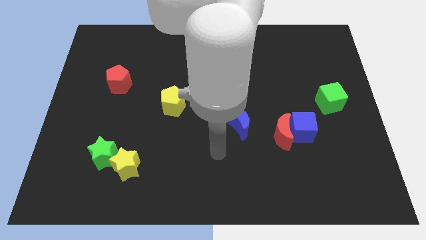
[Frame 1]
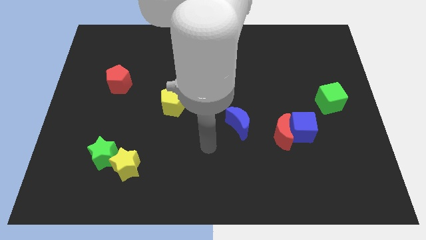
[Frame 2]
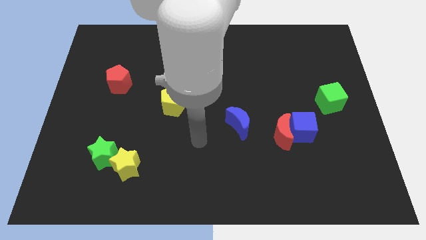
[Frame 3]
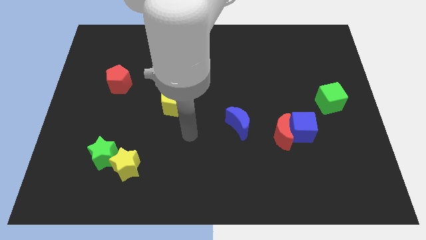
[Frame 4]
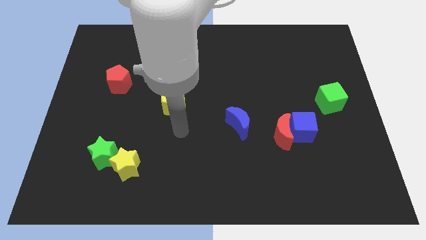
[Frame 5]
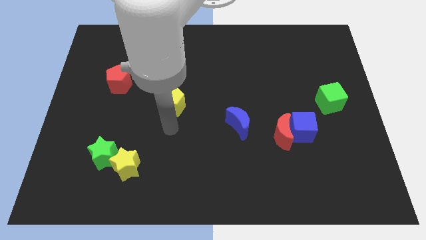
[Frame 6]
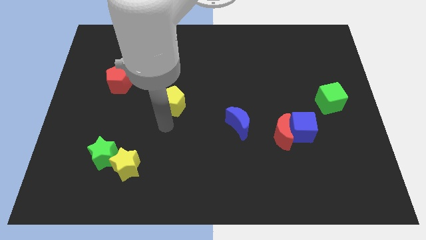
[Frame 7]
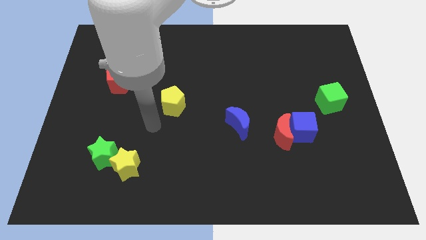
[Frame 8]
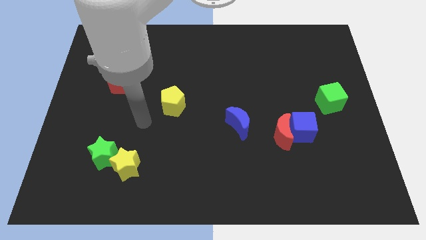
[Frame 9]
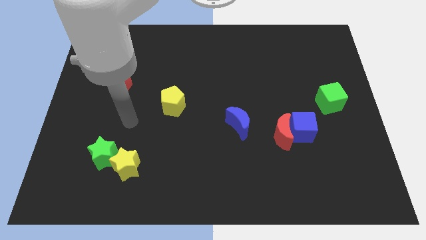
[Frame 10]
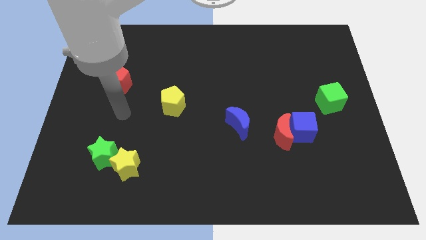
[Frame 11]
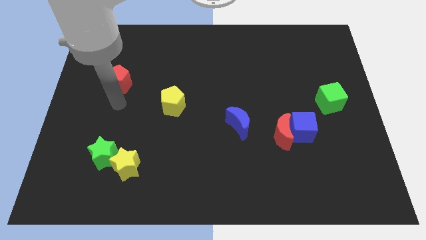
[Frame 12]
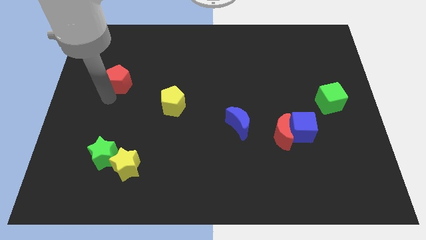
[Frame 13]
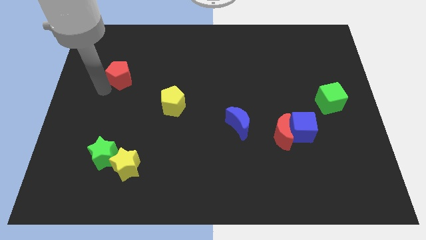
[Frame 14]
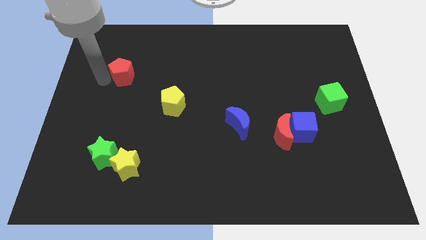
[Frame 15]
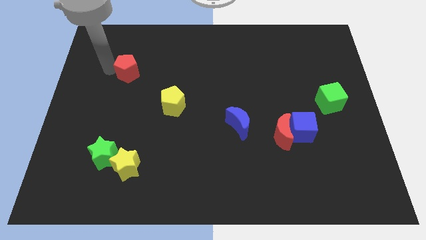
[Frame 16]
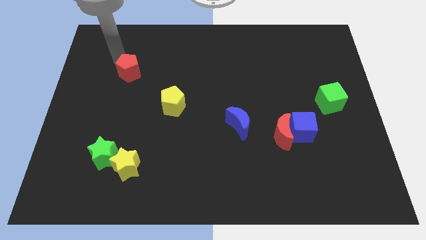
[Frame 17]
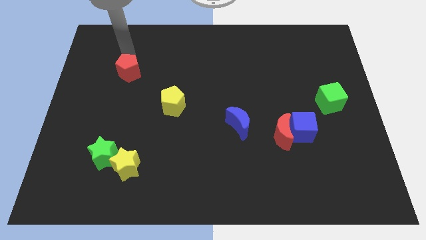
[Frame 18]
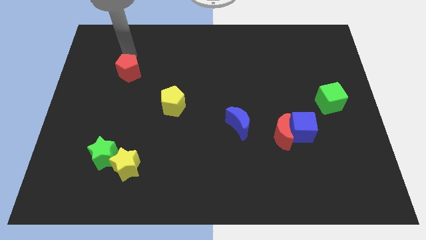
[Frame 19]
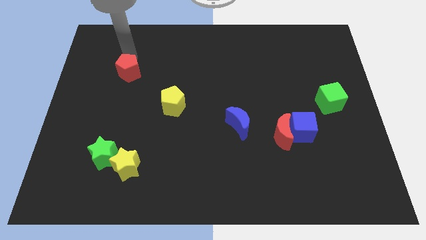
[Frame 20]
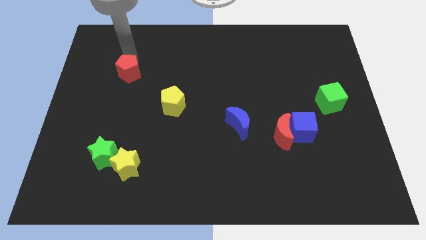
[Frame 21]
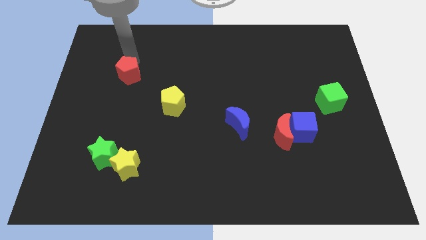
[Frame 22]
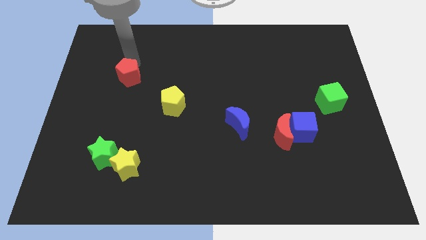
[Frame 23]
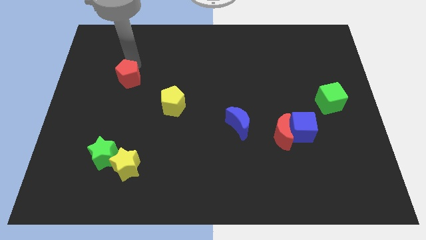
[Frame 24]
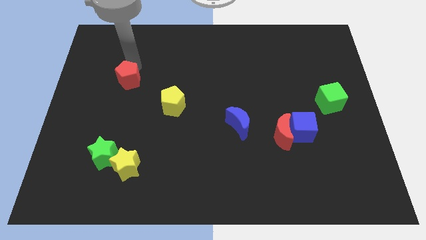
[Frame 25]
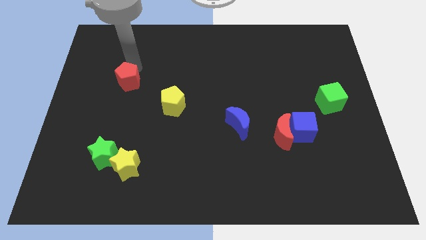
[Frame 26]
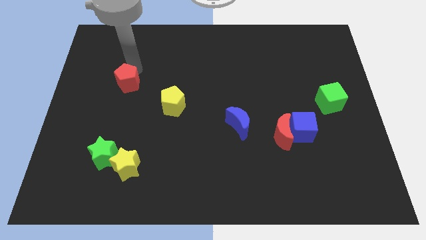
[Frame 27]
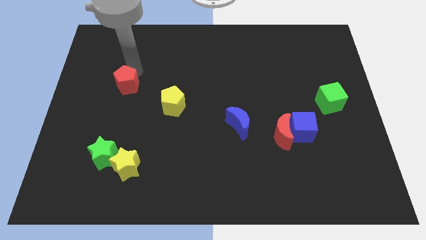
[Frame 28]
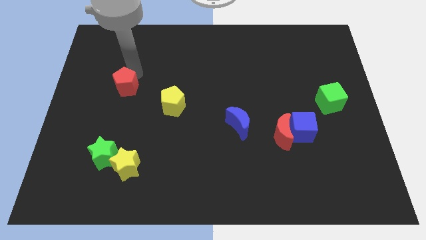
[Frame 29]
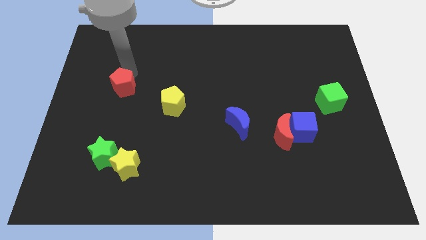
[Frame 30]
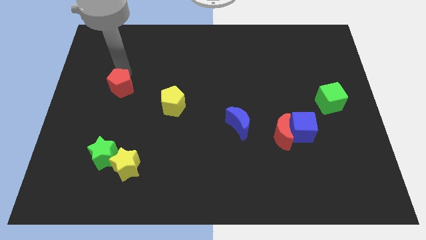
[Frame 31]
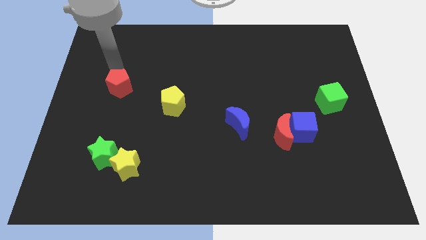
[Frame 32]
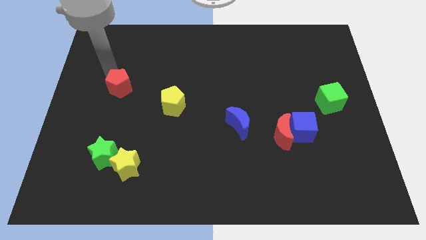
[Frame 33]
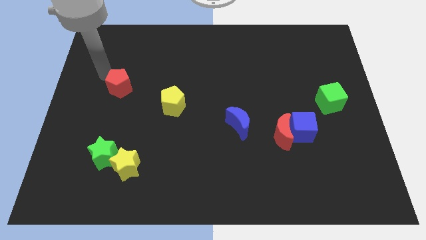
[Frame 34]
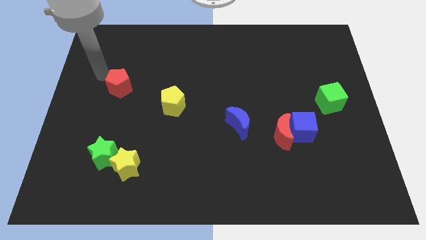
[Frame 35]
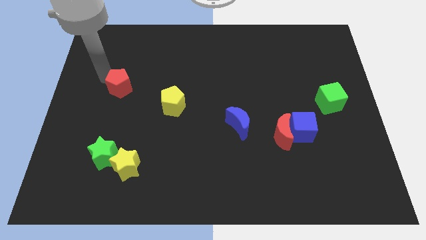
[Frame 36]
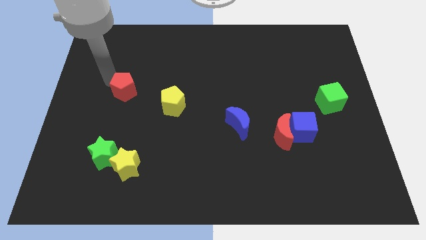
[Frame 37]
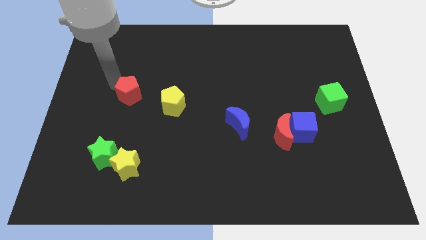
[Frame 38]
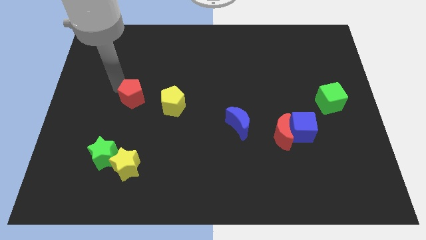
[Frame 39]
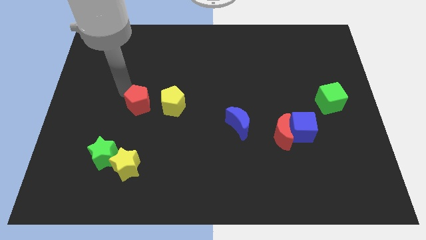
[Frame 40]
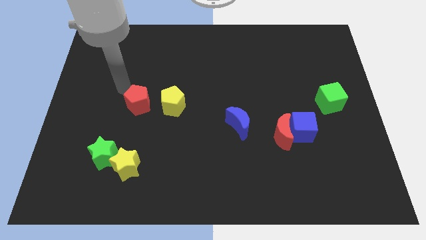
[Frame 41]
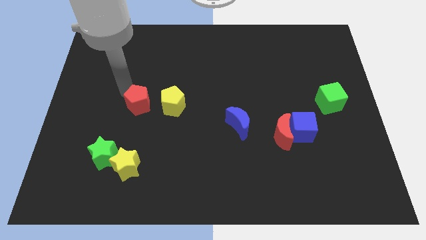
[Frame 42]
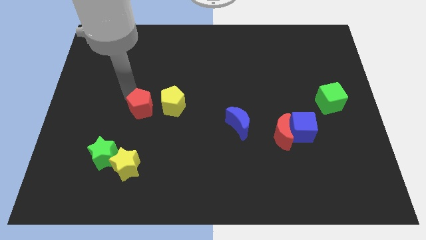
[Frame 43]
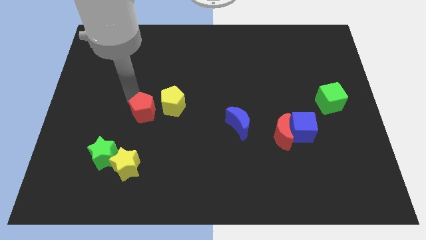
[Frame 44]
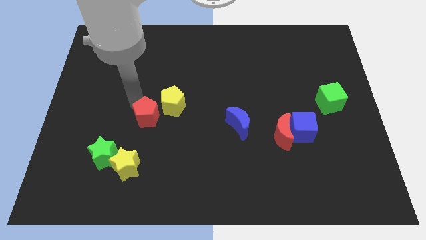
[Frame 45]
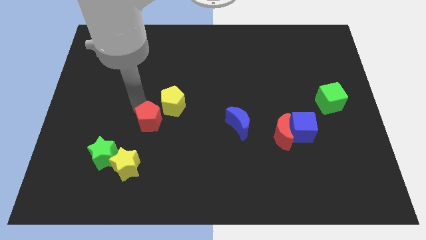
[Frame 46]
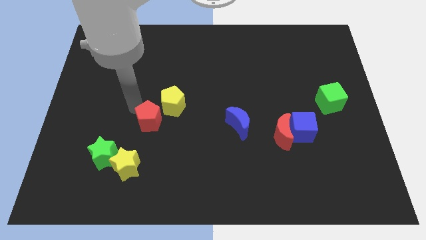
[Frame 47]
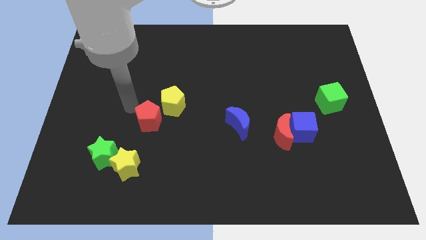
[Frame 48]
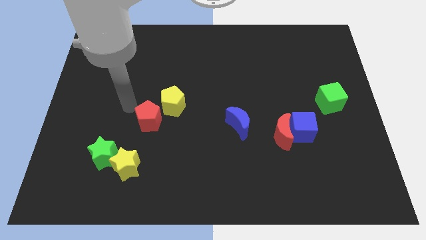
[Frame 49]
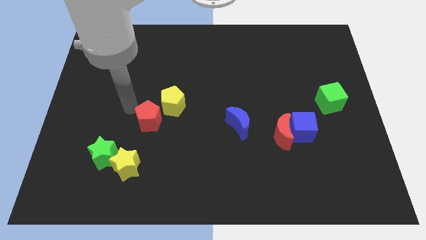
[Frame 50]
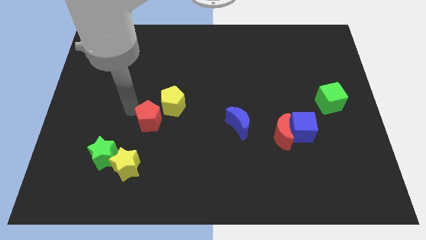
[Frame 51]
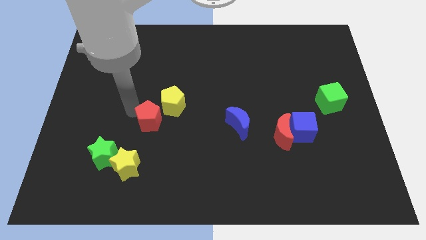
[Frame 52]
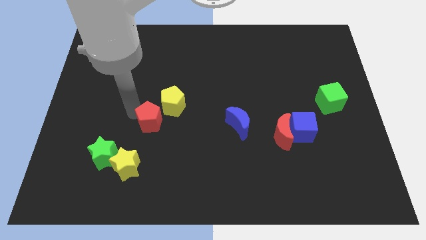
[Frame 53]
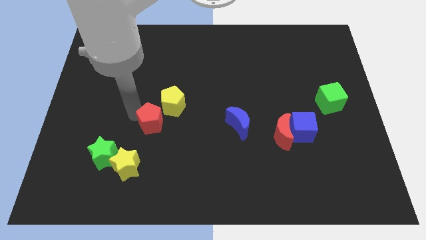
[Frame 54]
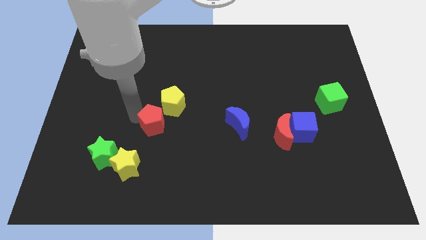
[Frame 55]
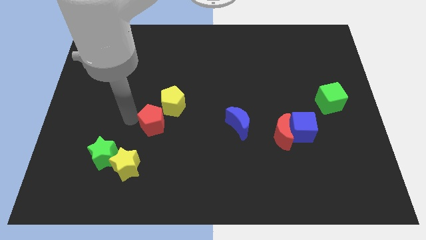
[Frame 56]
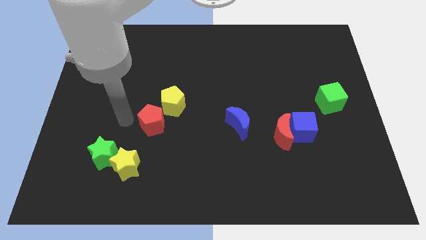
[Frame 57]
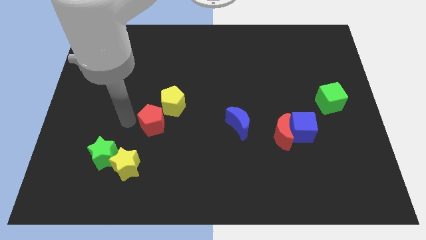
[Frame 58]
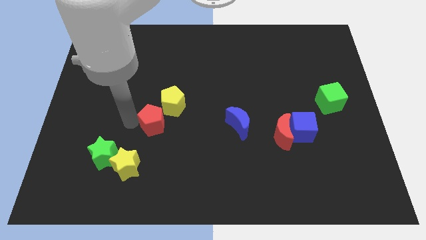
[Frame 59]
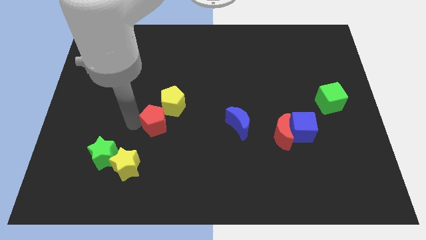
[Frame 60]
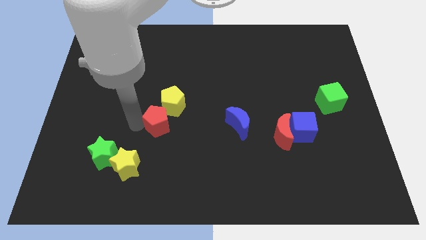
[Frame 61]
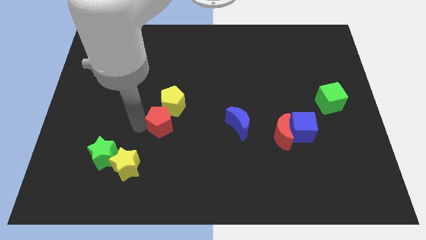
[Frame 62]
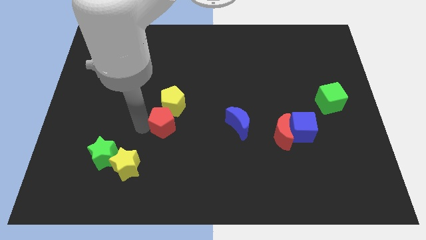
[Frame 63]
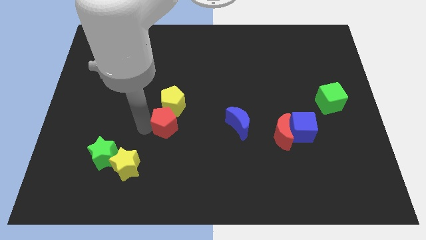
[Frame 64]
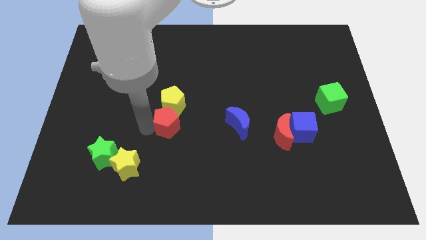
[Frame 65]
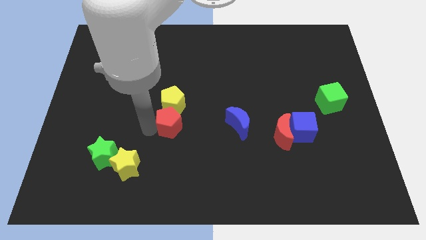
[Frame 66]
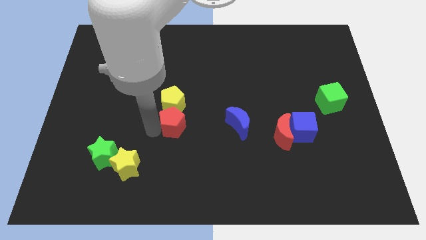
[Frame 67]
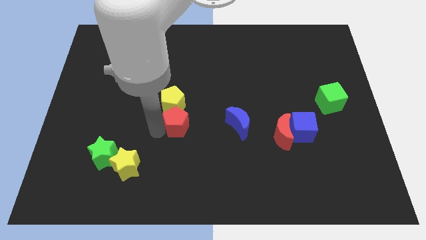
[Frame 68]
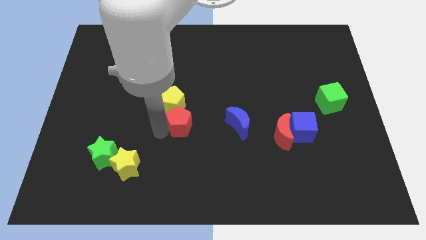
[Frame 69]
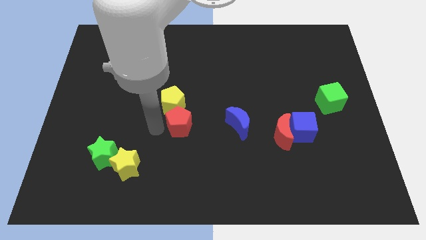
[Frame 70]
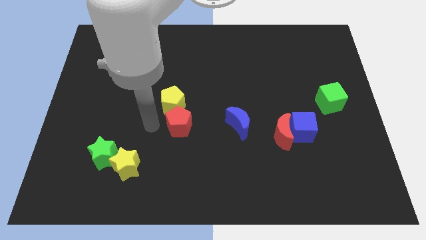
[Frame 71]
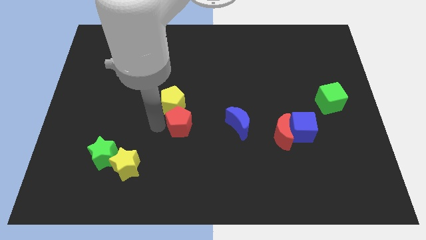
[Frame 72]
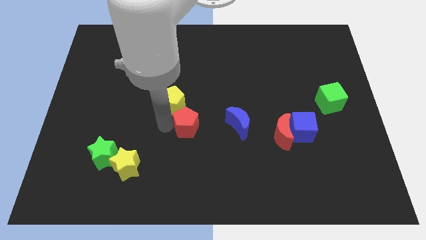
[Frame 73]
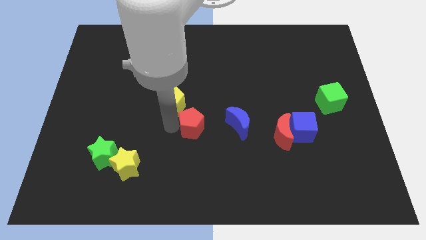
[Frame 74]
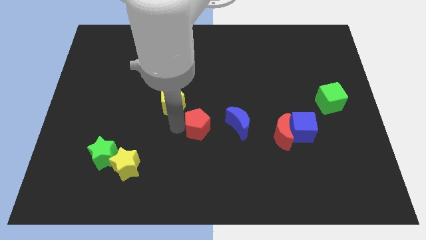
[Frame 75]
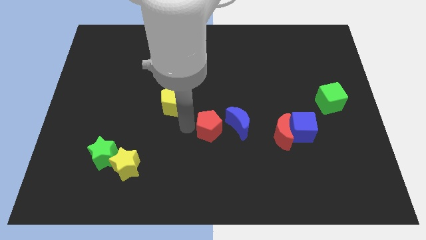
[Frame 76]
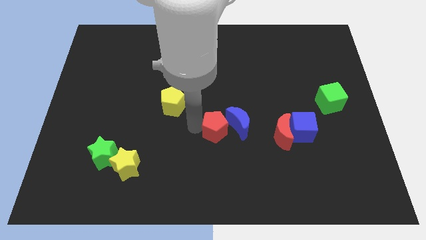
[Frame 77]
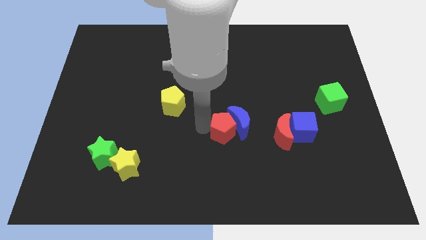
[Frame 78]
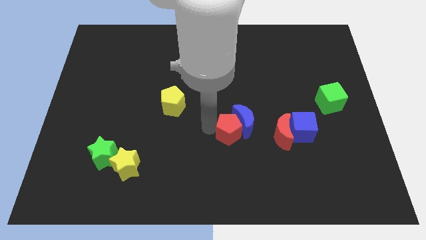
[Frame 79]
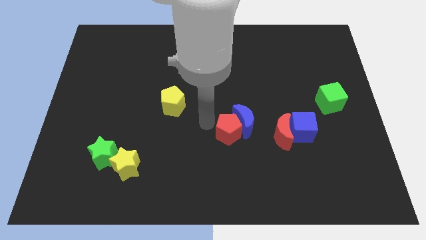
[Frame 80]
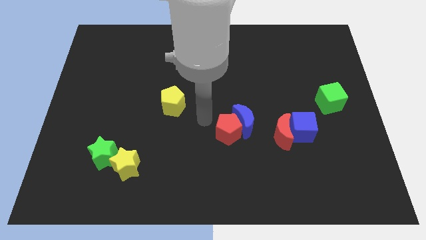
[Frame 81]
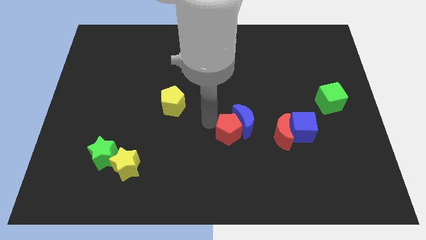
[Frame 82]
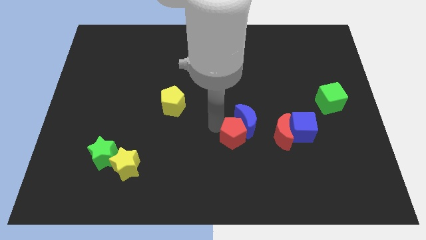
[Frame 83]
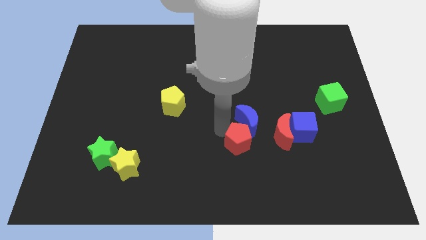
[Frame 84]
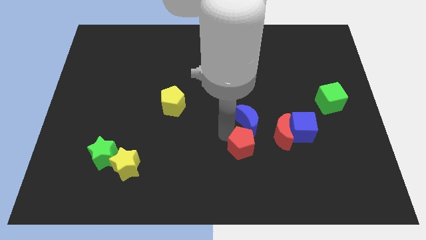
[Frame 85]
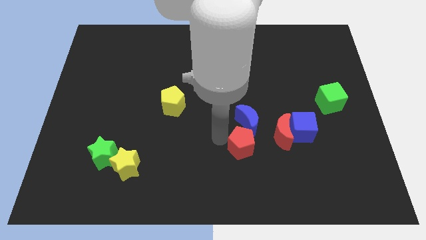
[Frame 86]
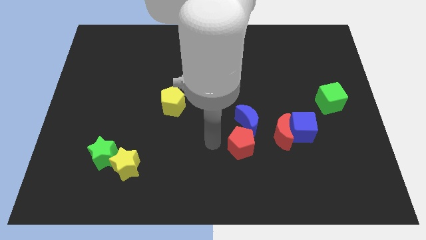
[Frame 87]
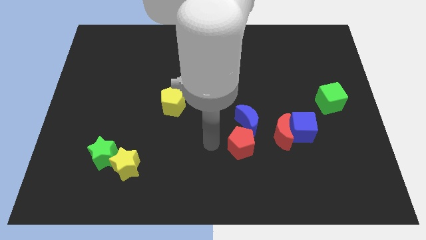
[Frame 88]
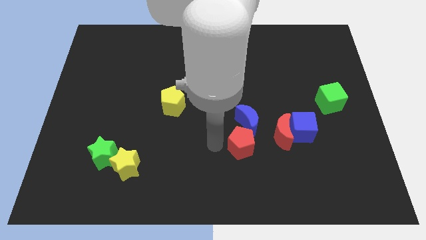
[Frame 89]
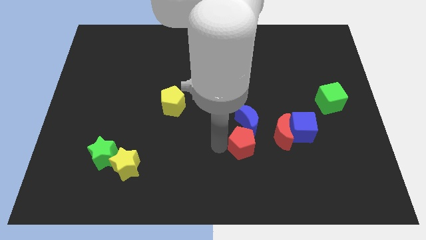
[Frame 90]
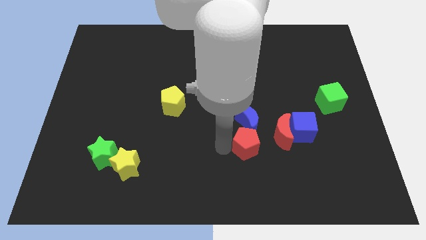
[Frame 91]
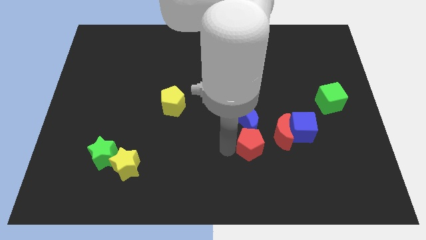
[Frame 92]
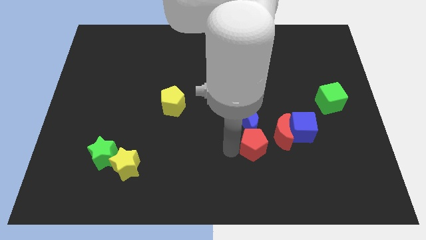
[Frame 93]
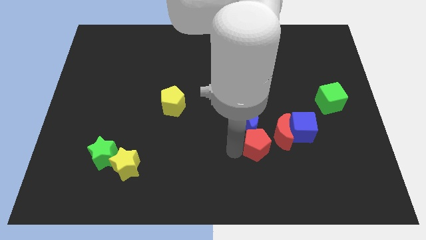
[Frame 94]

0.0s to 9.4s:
slide the red pentagon to the bottom left of the blue cube
